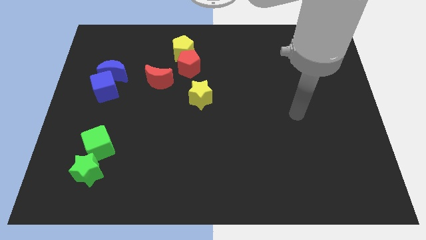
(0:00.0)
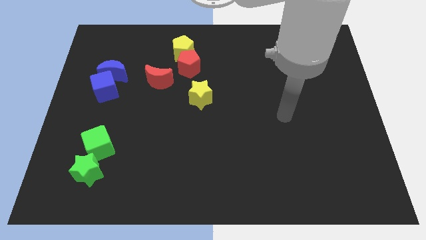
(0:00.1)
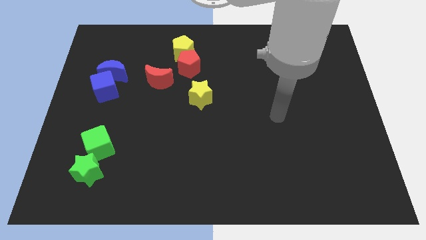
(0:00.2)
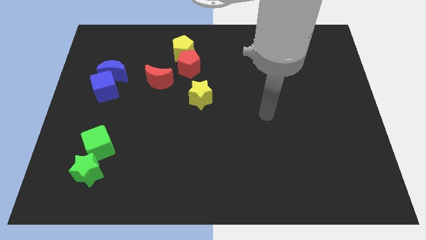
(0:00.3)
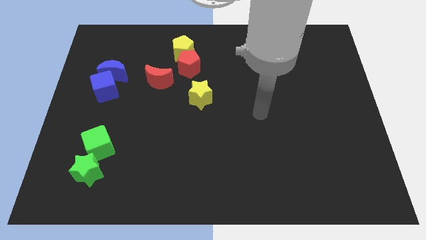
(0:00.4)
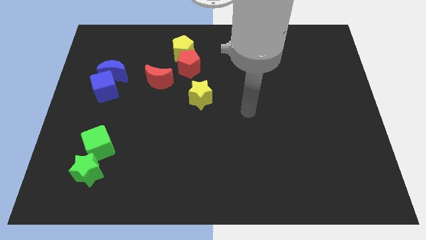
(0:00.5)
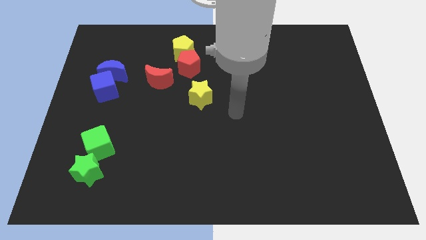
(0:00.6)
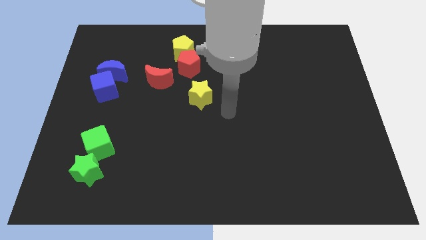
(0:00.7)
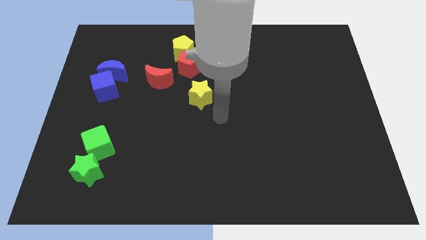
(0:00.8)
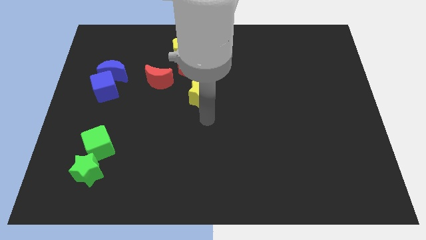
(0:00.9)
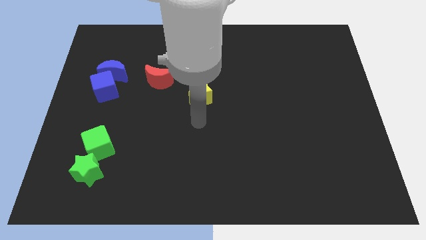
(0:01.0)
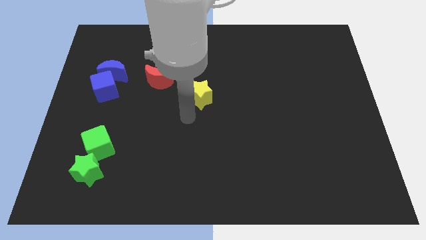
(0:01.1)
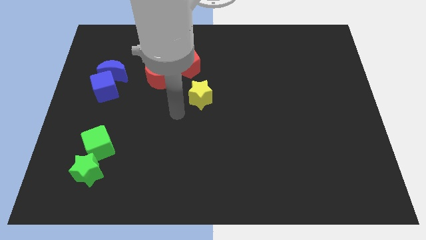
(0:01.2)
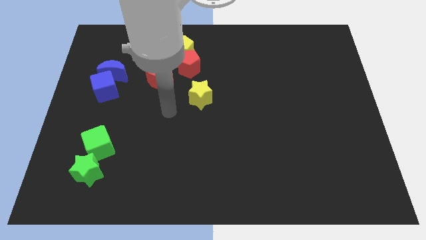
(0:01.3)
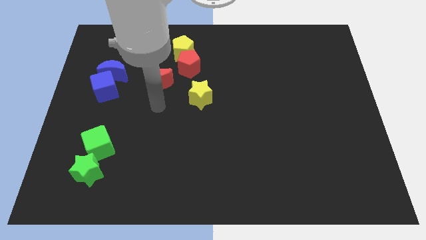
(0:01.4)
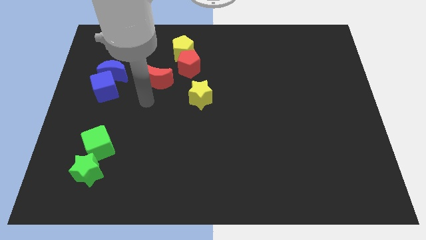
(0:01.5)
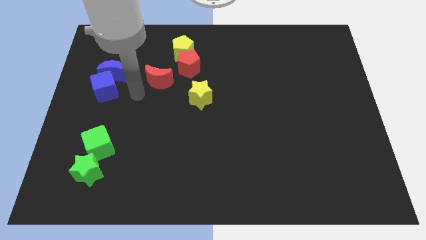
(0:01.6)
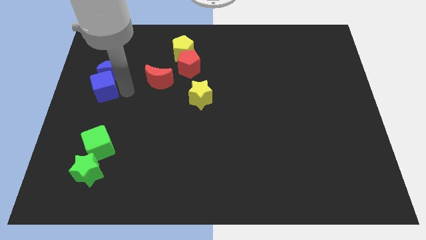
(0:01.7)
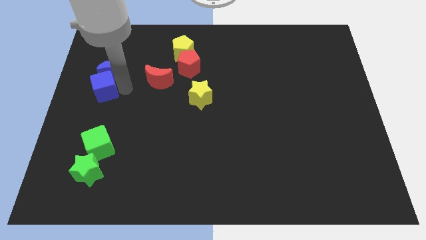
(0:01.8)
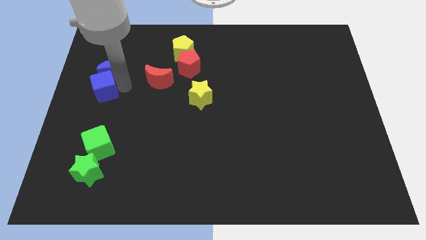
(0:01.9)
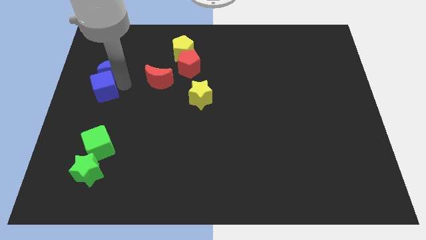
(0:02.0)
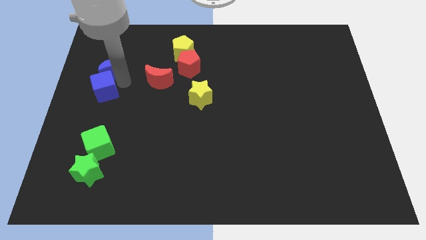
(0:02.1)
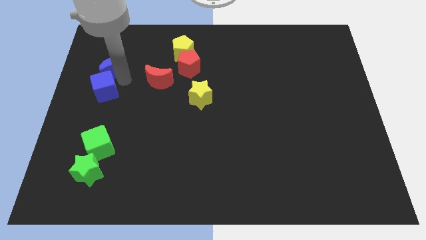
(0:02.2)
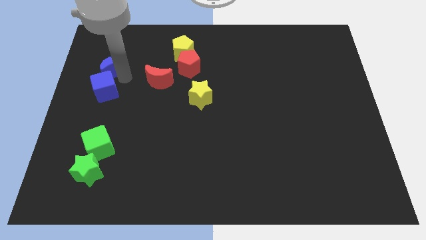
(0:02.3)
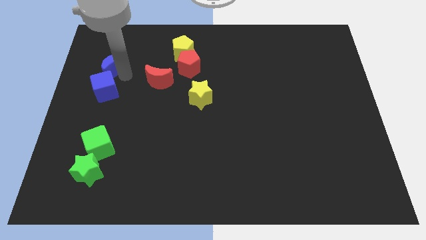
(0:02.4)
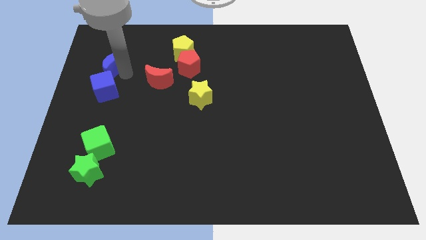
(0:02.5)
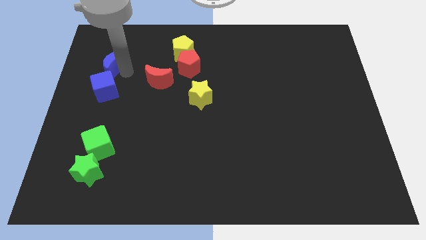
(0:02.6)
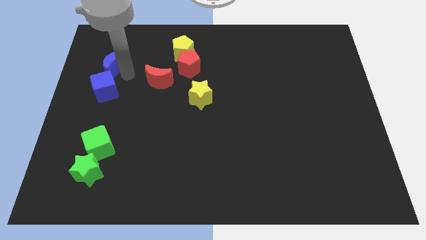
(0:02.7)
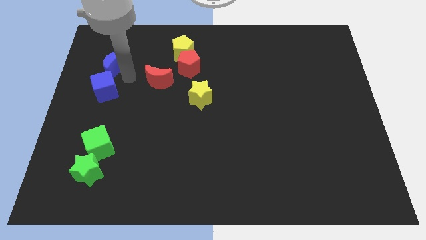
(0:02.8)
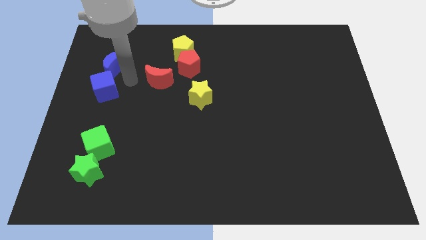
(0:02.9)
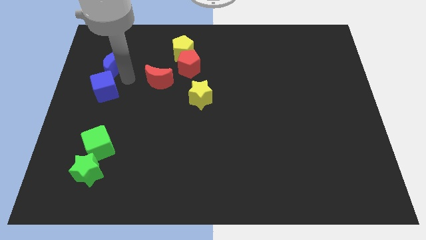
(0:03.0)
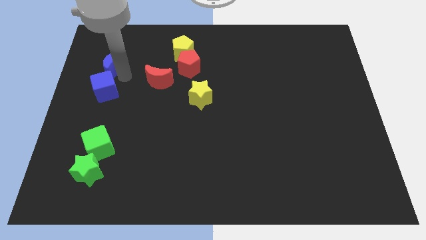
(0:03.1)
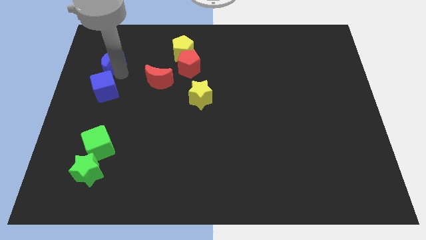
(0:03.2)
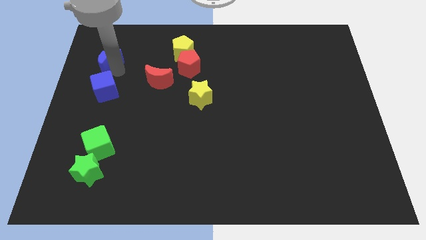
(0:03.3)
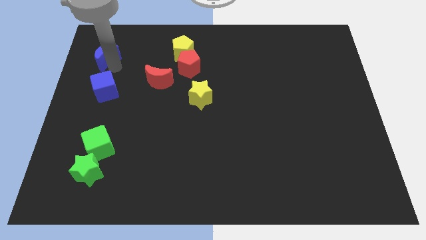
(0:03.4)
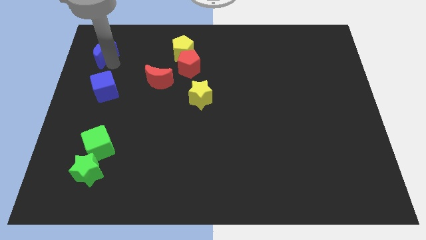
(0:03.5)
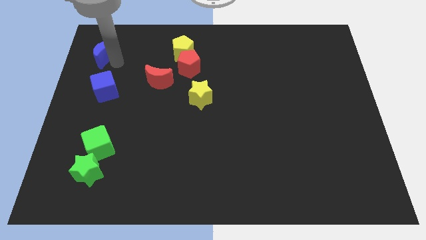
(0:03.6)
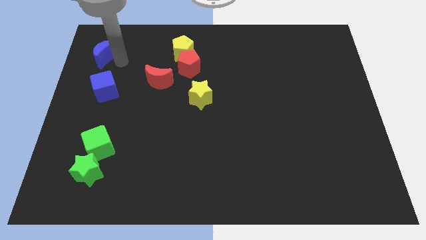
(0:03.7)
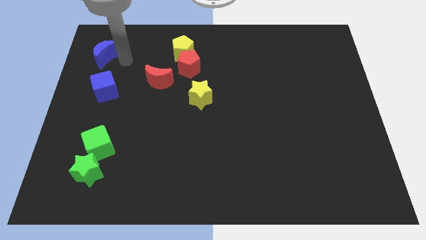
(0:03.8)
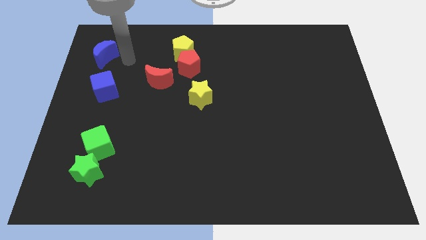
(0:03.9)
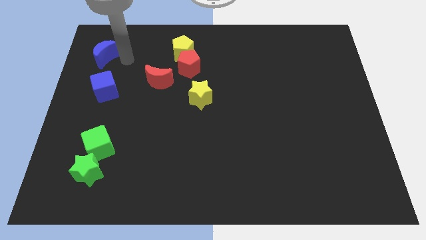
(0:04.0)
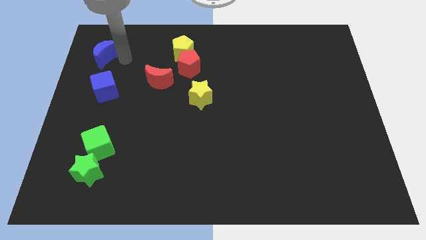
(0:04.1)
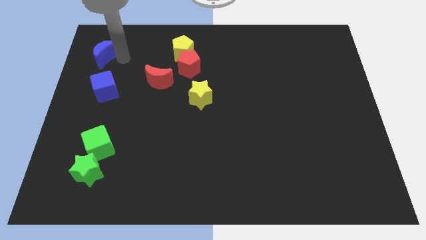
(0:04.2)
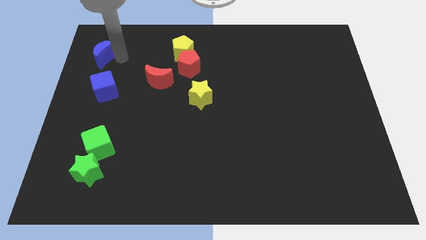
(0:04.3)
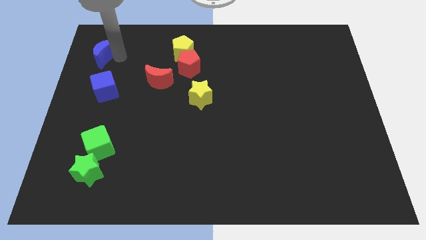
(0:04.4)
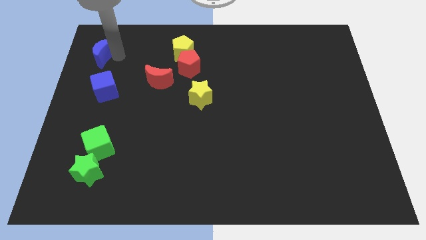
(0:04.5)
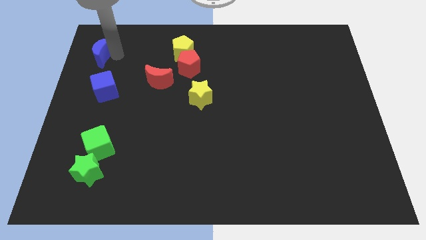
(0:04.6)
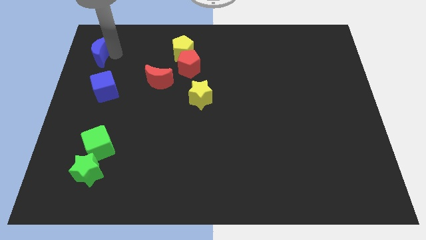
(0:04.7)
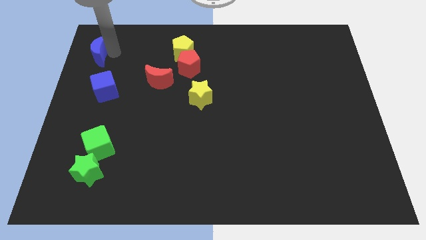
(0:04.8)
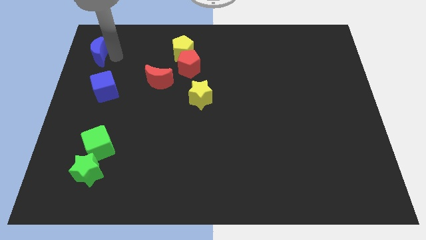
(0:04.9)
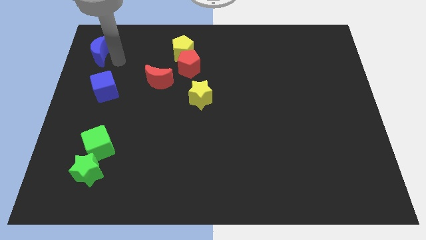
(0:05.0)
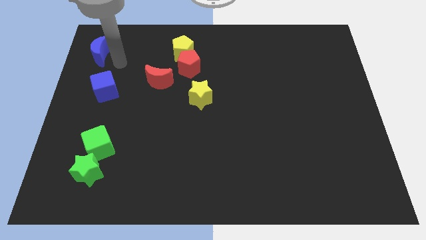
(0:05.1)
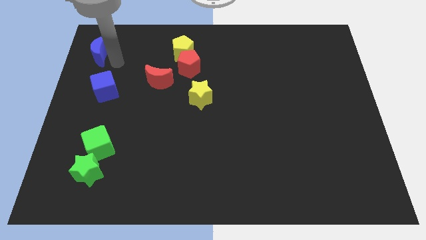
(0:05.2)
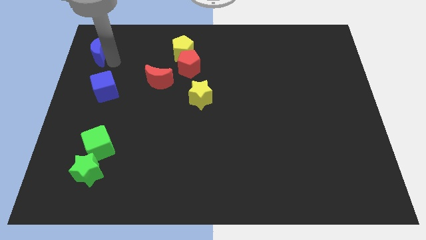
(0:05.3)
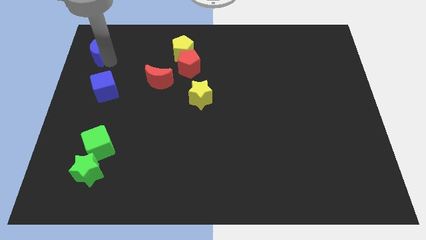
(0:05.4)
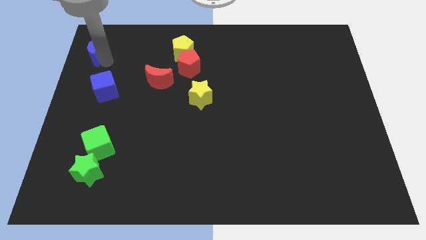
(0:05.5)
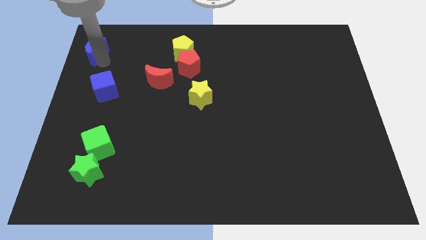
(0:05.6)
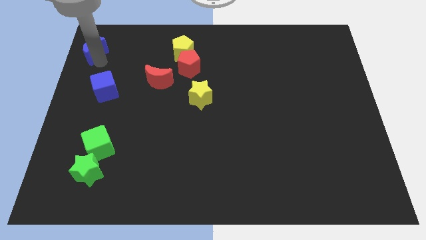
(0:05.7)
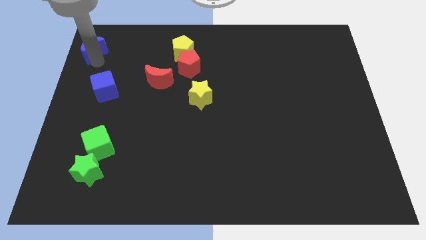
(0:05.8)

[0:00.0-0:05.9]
push the blue moon to the top left corner

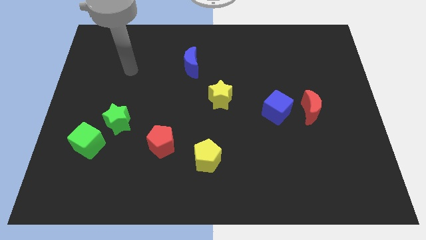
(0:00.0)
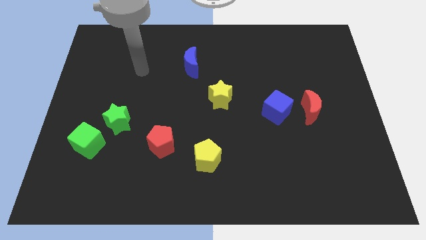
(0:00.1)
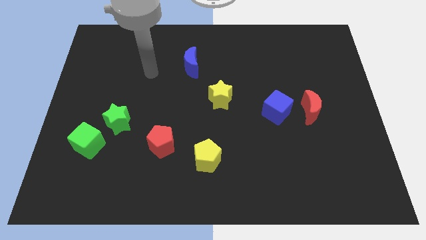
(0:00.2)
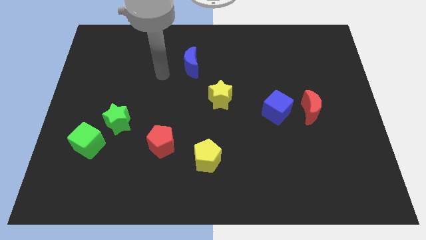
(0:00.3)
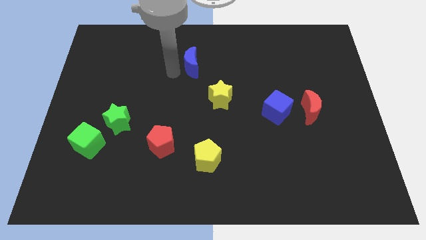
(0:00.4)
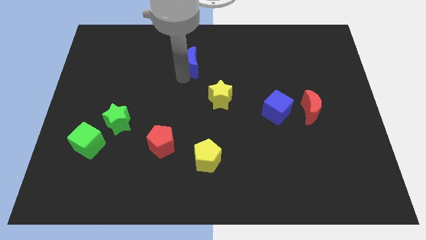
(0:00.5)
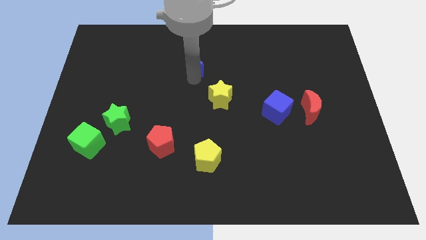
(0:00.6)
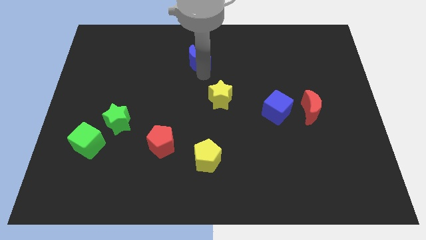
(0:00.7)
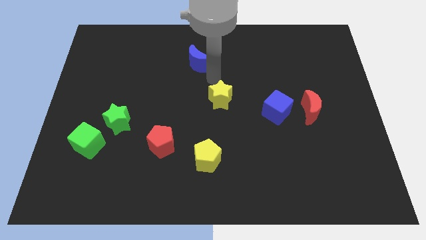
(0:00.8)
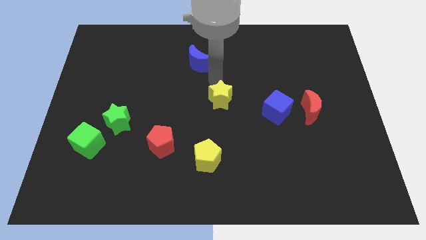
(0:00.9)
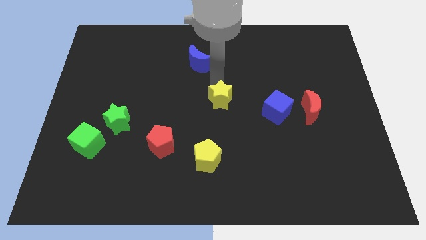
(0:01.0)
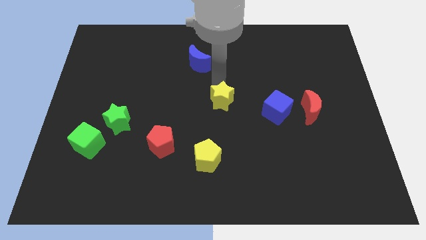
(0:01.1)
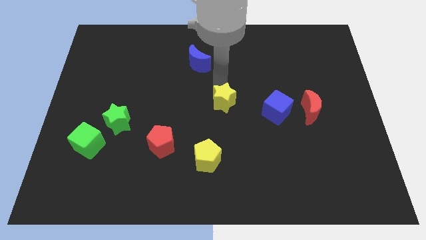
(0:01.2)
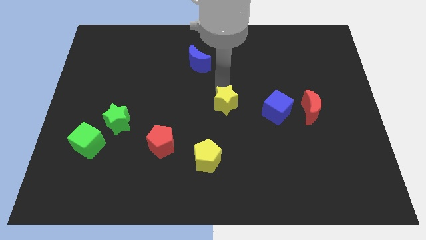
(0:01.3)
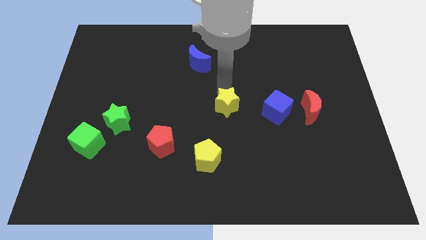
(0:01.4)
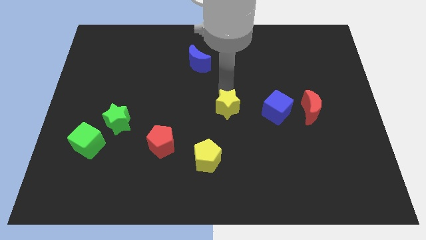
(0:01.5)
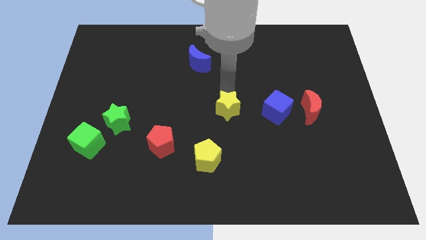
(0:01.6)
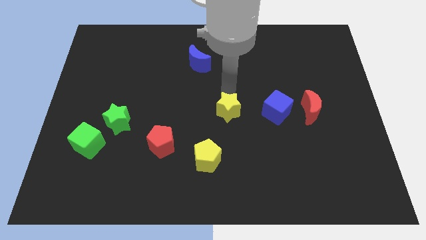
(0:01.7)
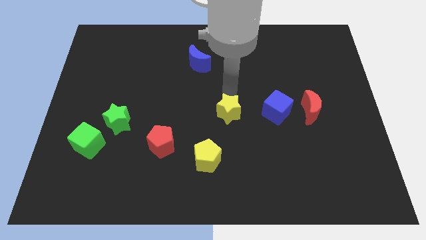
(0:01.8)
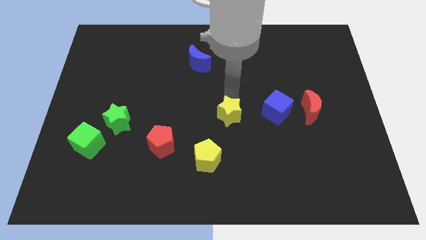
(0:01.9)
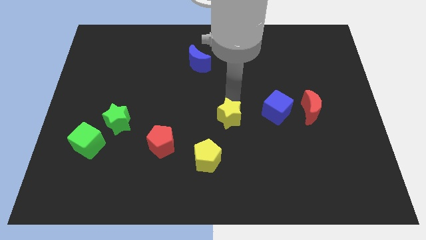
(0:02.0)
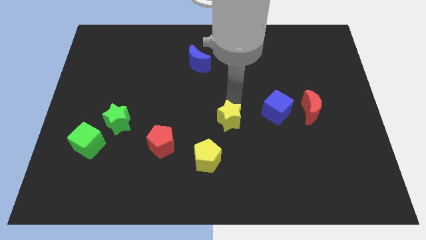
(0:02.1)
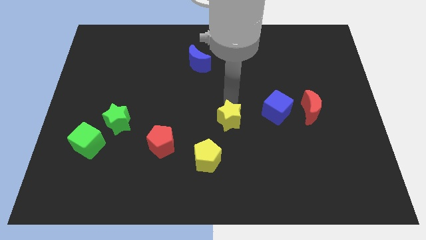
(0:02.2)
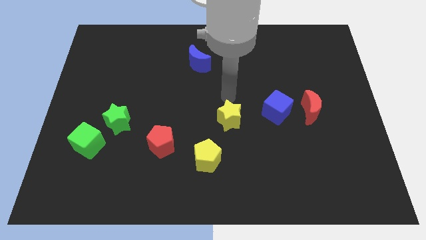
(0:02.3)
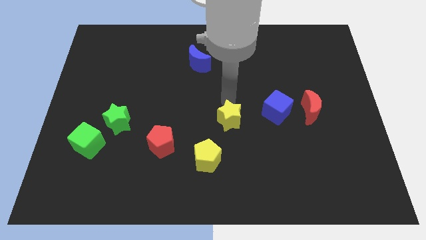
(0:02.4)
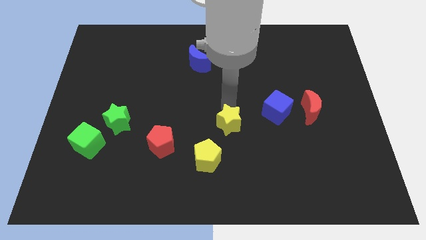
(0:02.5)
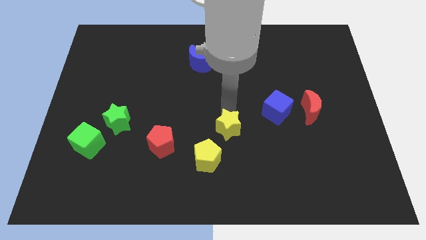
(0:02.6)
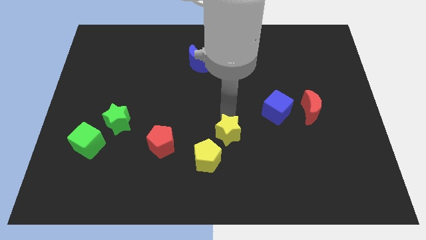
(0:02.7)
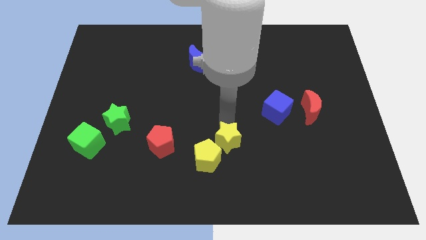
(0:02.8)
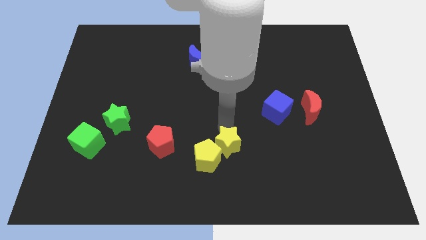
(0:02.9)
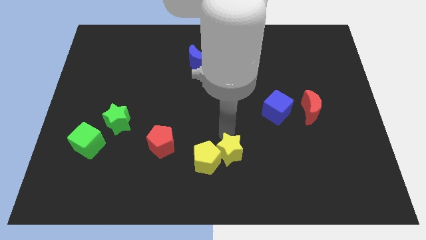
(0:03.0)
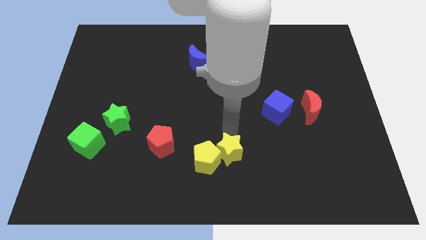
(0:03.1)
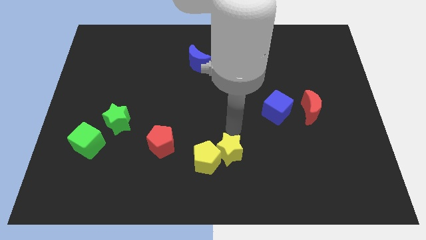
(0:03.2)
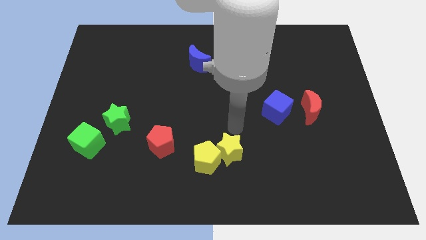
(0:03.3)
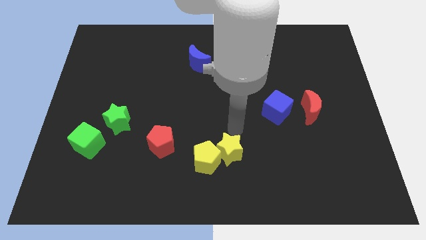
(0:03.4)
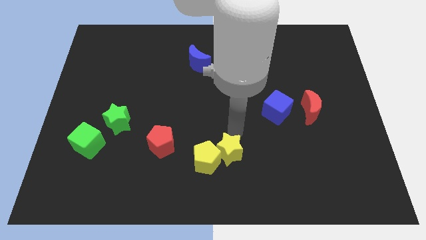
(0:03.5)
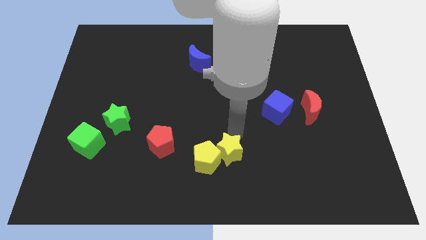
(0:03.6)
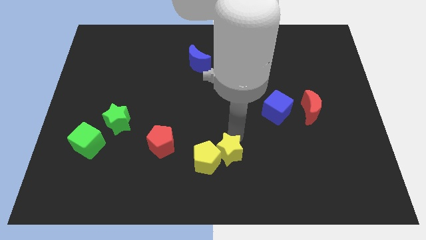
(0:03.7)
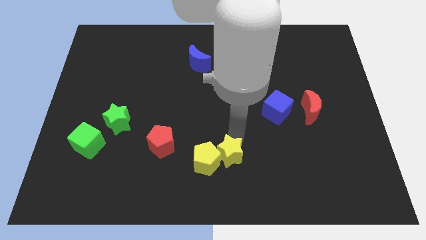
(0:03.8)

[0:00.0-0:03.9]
push the yellow star to the bottom side
